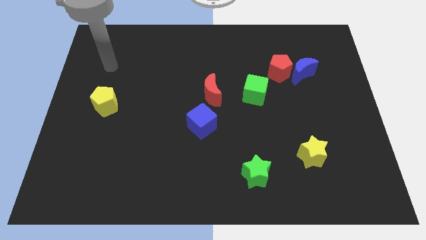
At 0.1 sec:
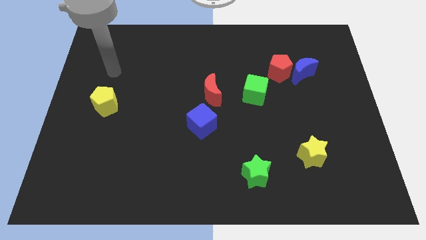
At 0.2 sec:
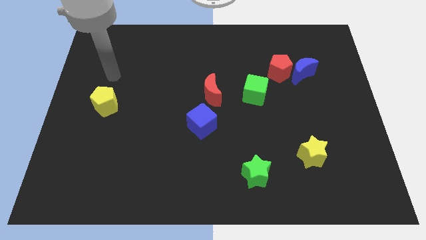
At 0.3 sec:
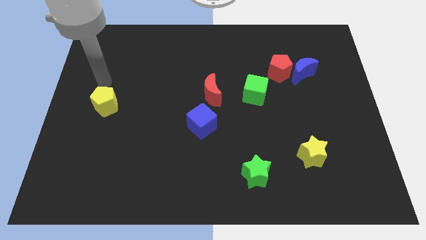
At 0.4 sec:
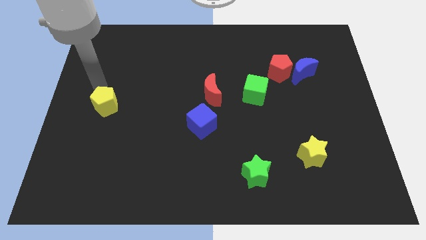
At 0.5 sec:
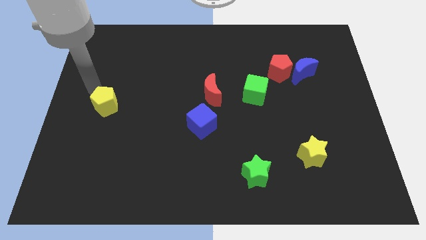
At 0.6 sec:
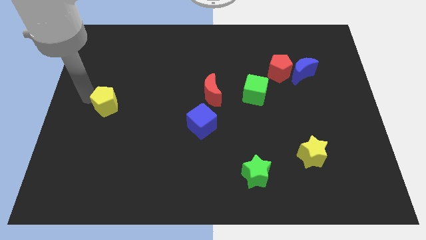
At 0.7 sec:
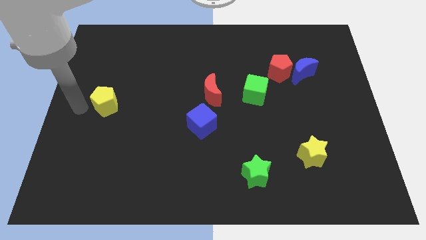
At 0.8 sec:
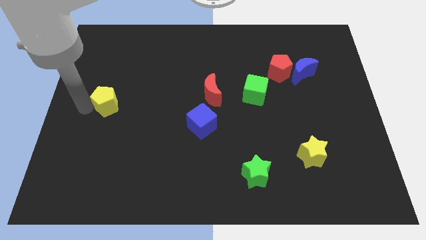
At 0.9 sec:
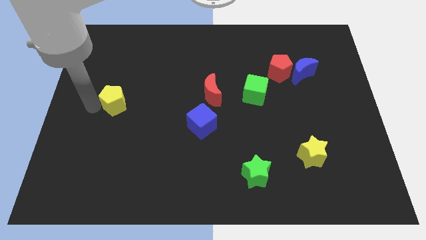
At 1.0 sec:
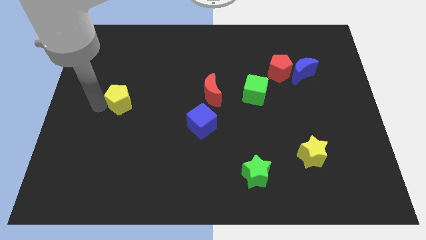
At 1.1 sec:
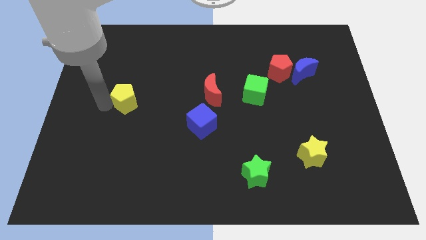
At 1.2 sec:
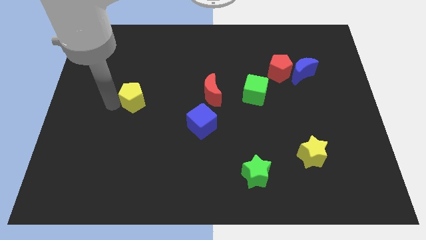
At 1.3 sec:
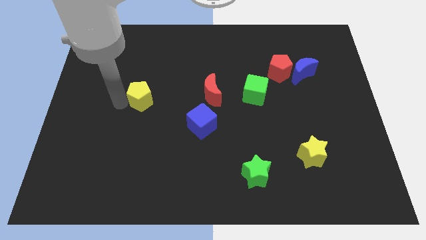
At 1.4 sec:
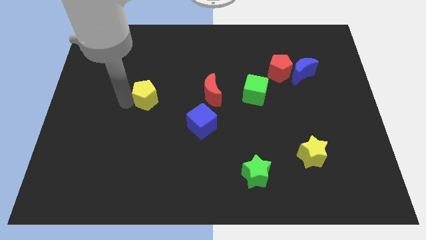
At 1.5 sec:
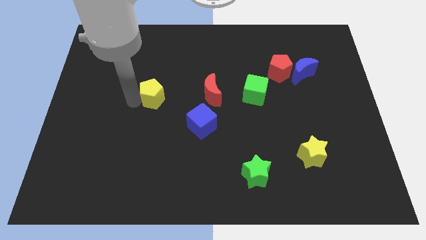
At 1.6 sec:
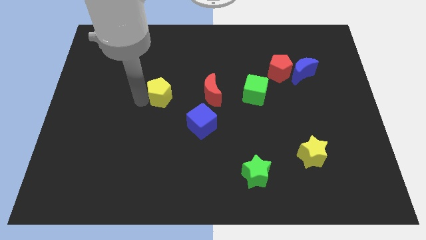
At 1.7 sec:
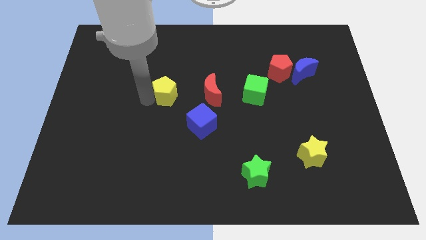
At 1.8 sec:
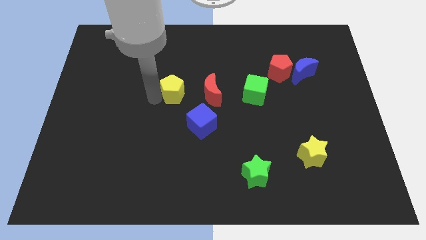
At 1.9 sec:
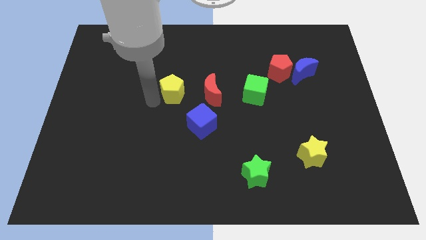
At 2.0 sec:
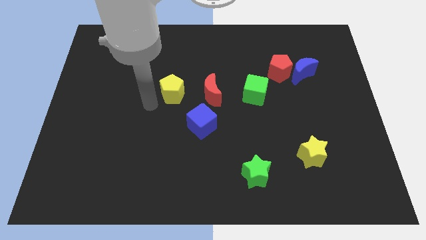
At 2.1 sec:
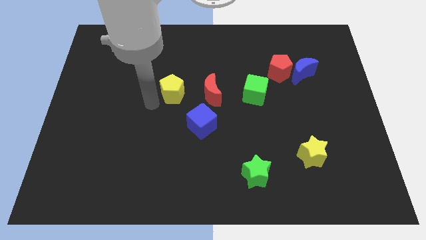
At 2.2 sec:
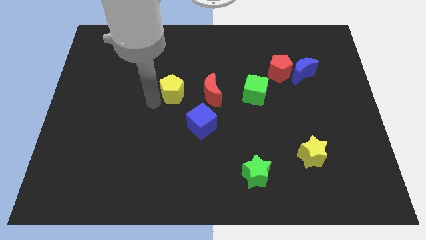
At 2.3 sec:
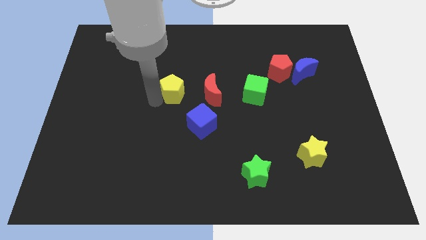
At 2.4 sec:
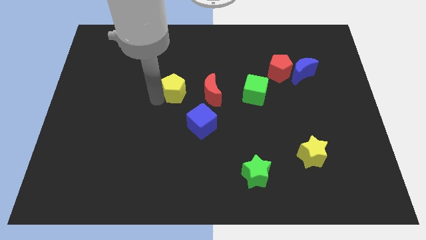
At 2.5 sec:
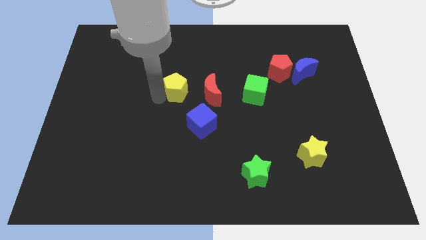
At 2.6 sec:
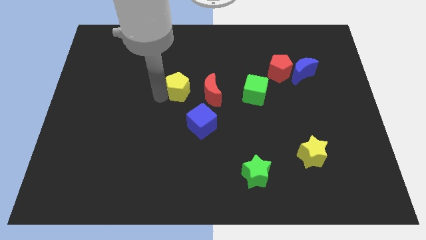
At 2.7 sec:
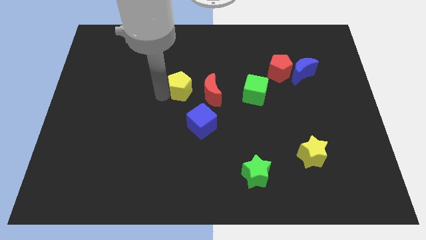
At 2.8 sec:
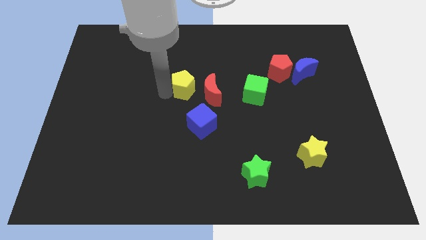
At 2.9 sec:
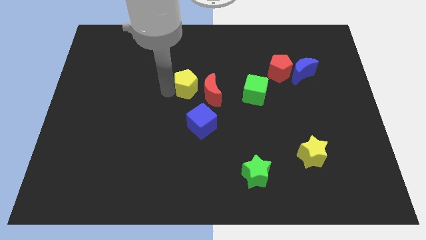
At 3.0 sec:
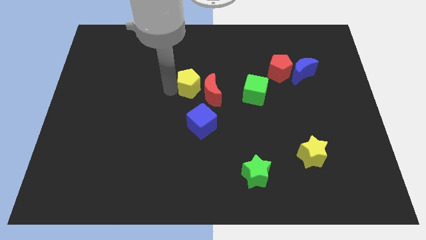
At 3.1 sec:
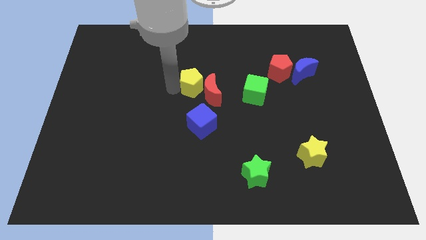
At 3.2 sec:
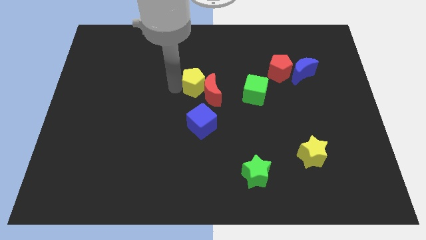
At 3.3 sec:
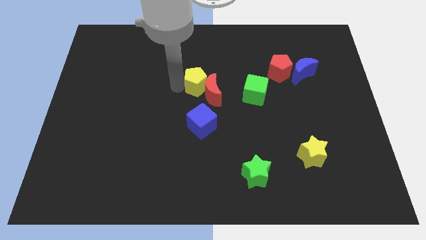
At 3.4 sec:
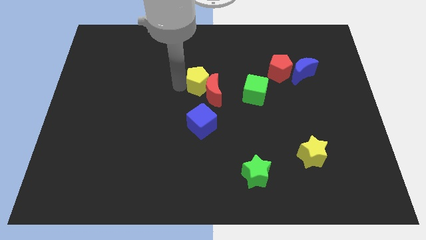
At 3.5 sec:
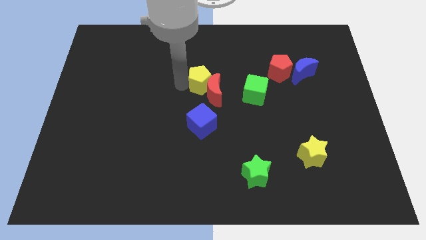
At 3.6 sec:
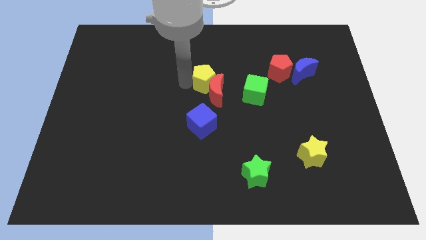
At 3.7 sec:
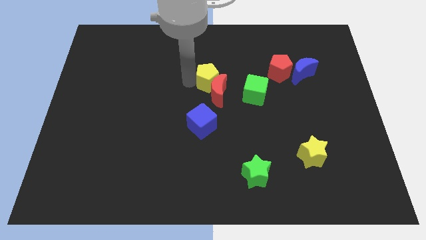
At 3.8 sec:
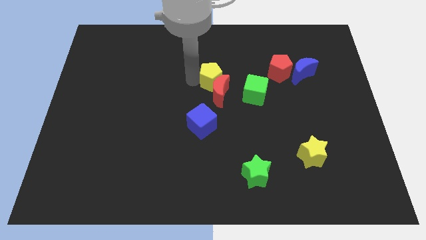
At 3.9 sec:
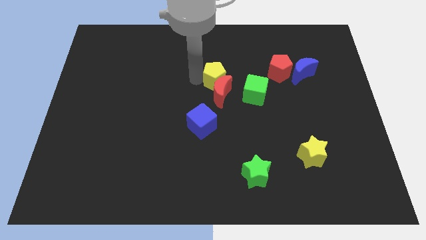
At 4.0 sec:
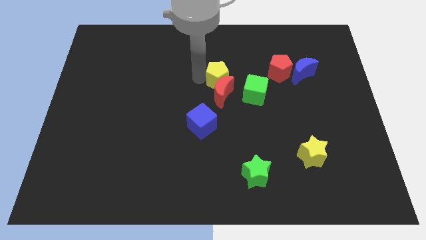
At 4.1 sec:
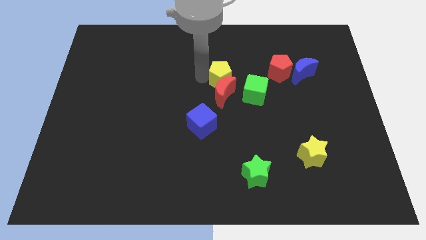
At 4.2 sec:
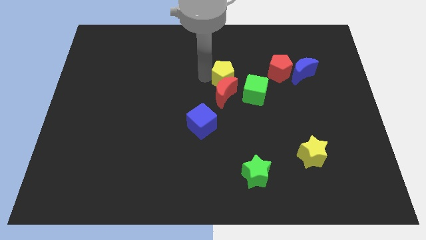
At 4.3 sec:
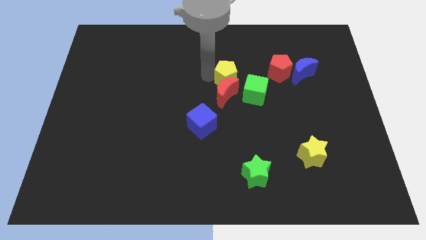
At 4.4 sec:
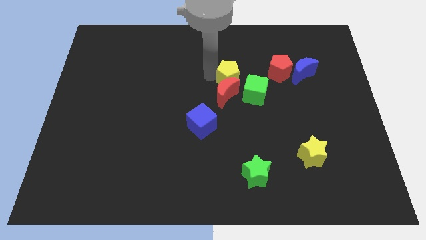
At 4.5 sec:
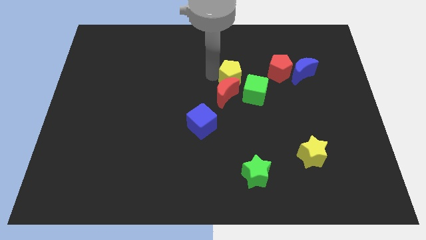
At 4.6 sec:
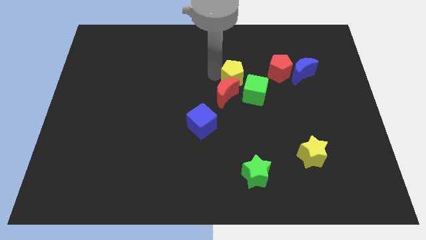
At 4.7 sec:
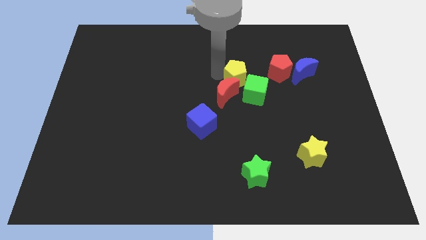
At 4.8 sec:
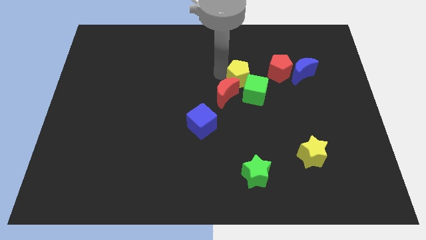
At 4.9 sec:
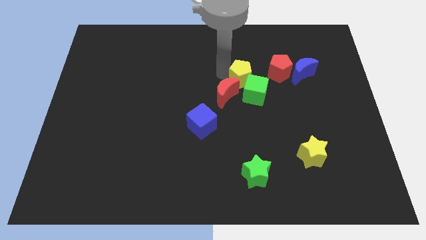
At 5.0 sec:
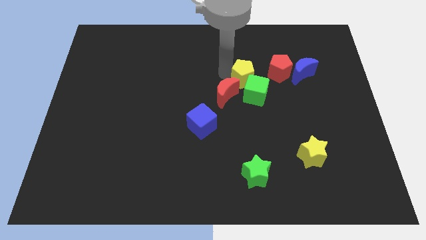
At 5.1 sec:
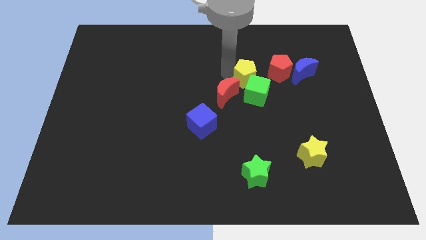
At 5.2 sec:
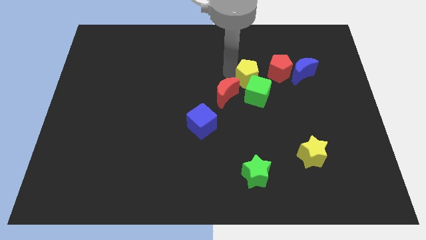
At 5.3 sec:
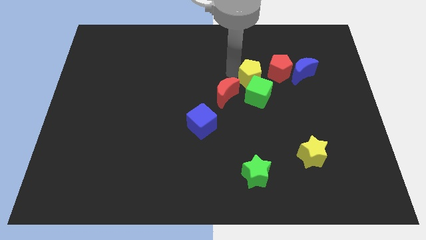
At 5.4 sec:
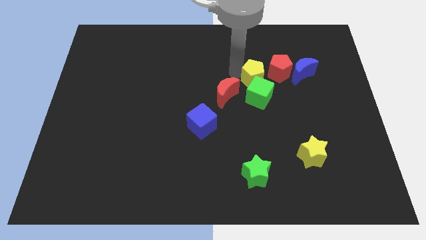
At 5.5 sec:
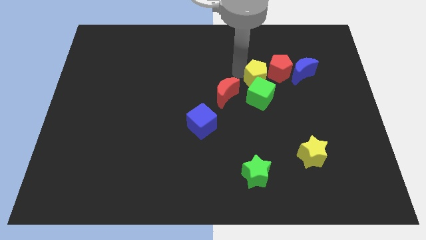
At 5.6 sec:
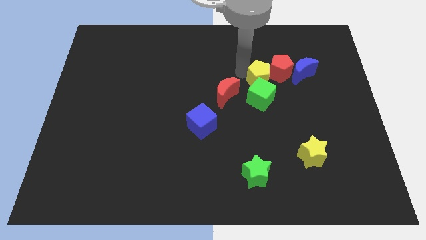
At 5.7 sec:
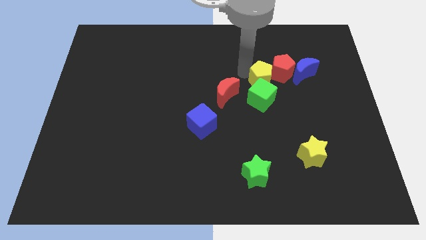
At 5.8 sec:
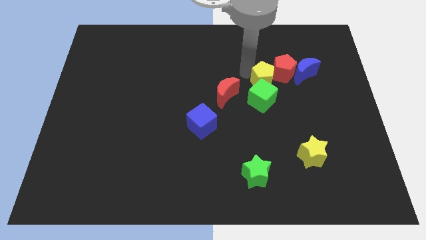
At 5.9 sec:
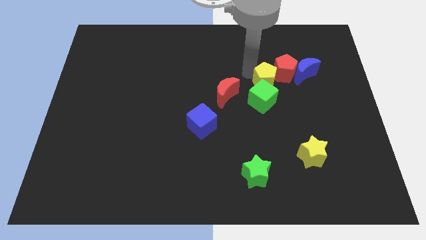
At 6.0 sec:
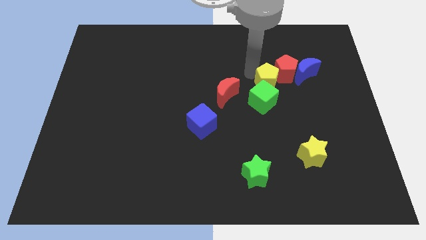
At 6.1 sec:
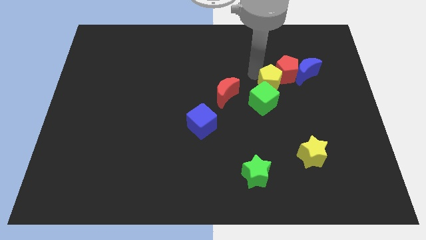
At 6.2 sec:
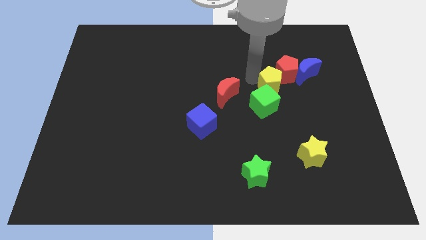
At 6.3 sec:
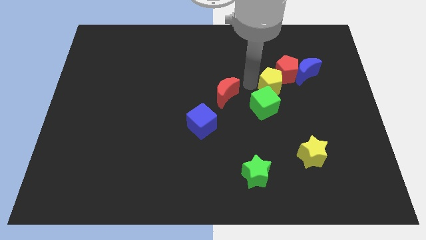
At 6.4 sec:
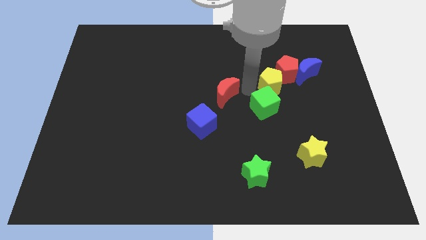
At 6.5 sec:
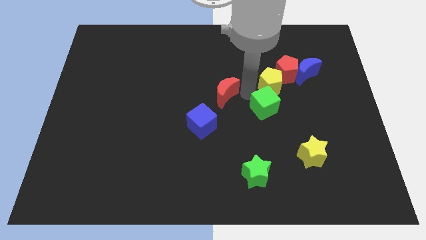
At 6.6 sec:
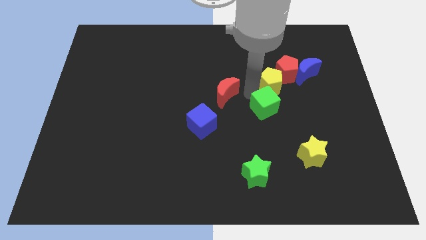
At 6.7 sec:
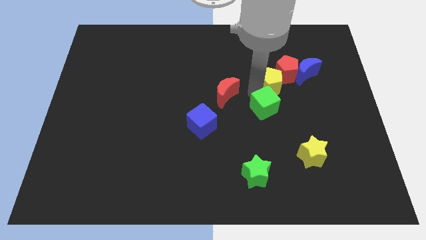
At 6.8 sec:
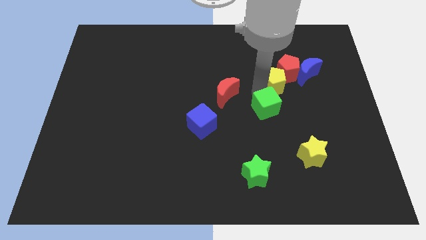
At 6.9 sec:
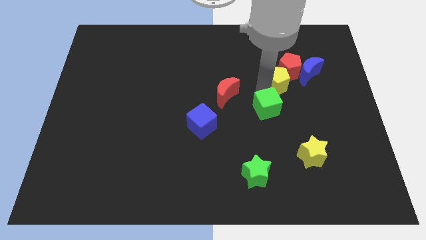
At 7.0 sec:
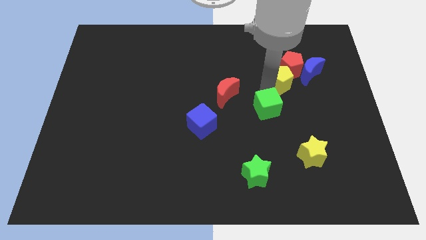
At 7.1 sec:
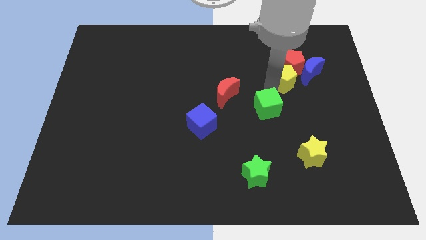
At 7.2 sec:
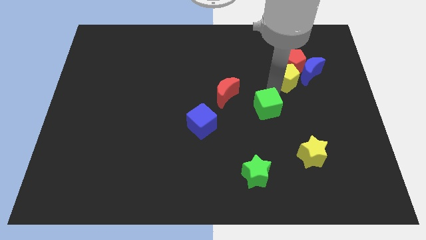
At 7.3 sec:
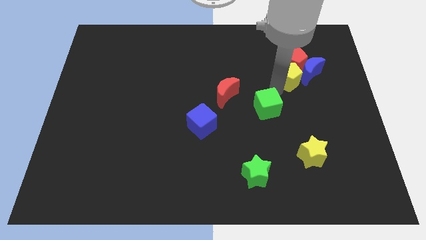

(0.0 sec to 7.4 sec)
put the yellow pentagon towards the blue moon
